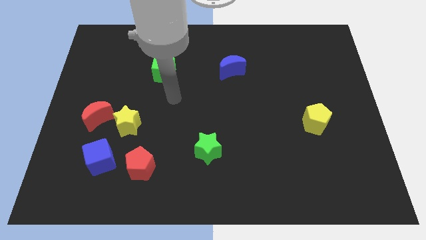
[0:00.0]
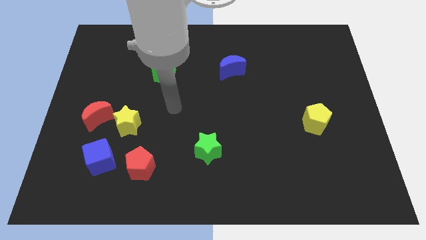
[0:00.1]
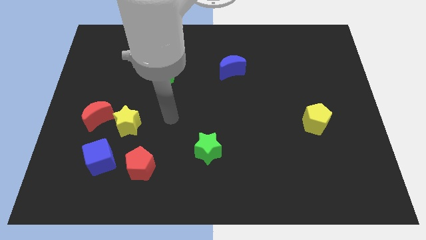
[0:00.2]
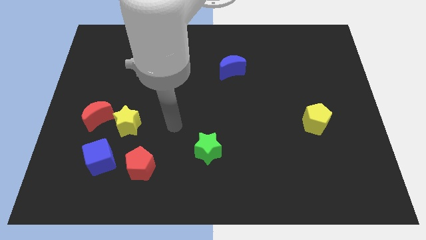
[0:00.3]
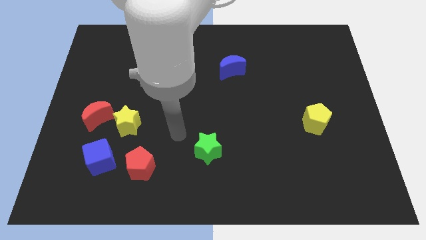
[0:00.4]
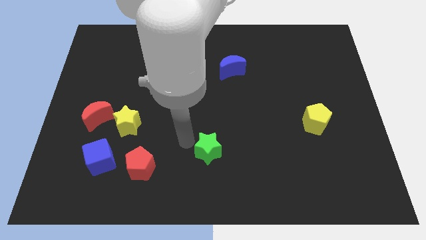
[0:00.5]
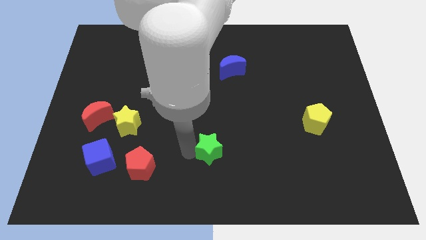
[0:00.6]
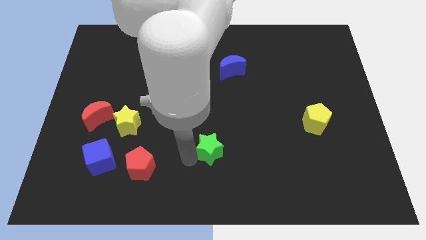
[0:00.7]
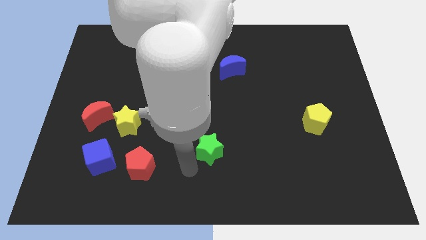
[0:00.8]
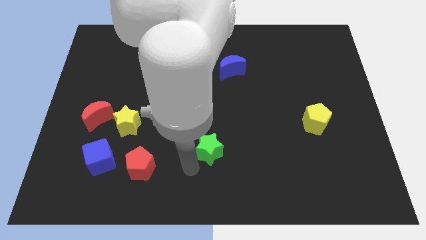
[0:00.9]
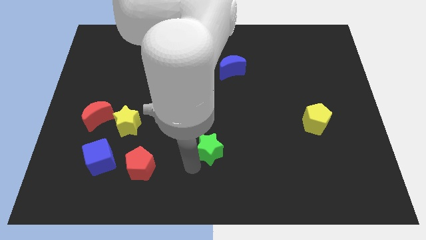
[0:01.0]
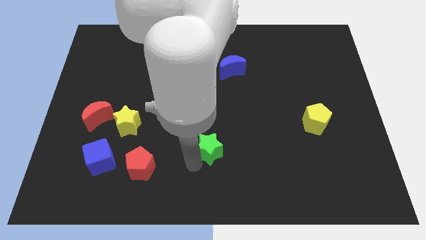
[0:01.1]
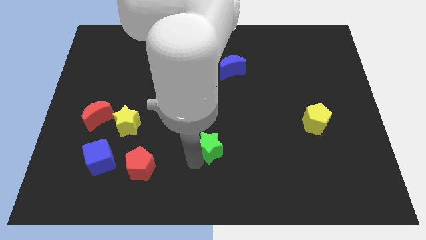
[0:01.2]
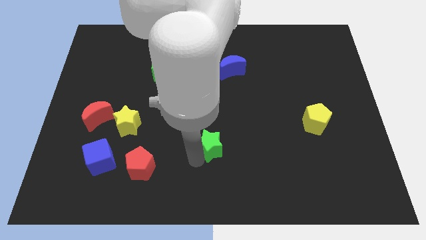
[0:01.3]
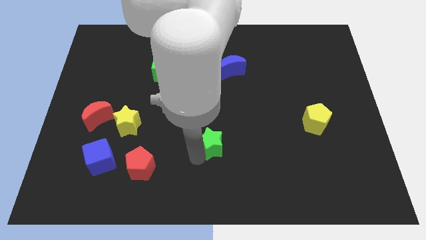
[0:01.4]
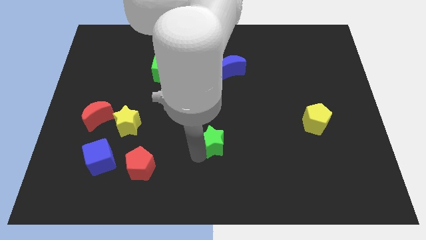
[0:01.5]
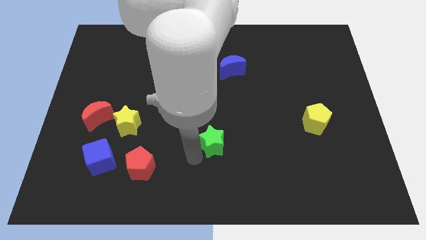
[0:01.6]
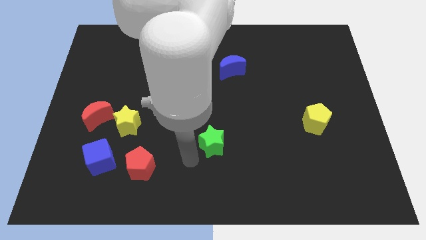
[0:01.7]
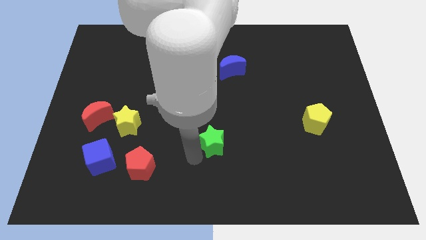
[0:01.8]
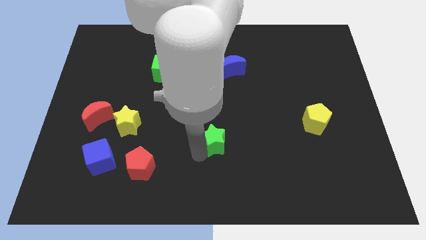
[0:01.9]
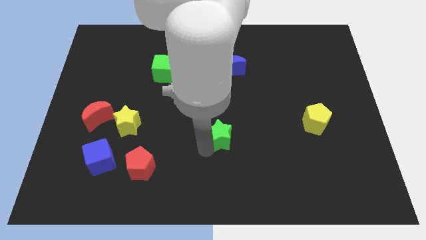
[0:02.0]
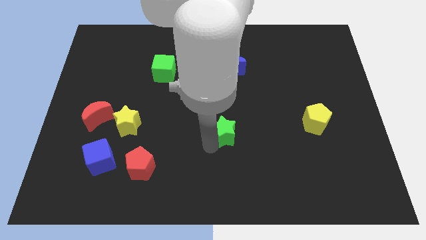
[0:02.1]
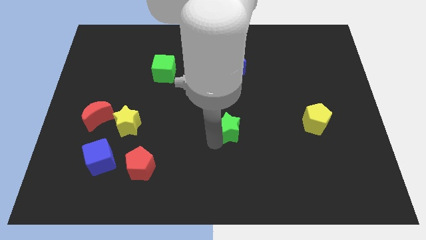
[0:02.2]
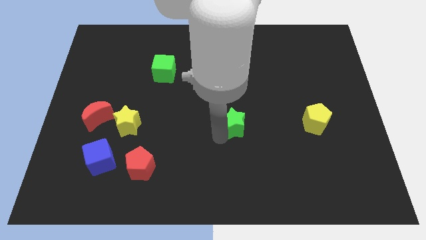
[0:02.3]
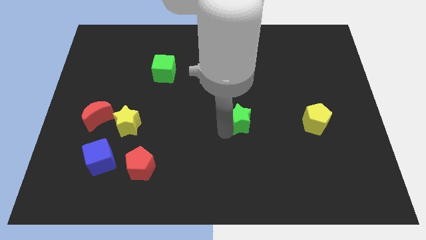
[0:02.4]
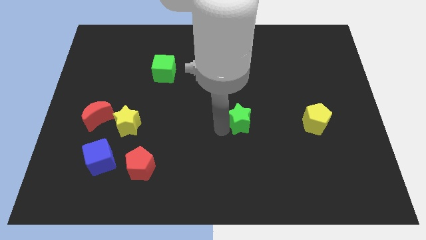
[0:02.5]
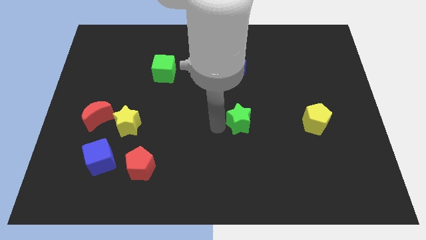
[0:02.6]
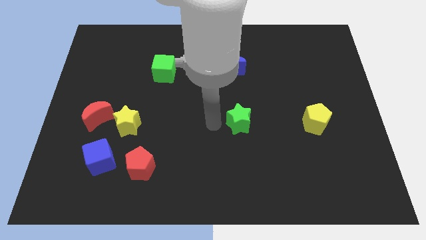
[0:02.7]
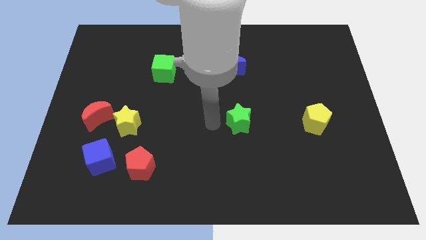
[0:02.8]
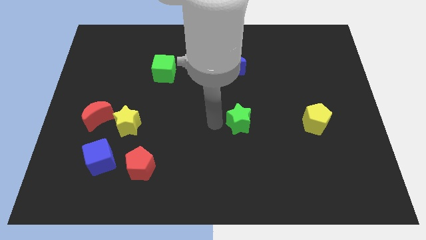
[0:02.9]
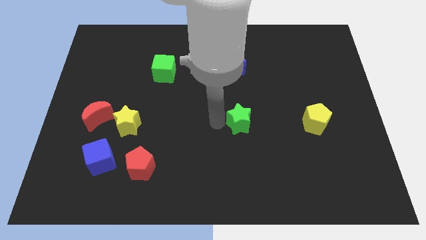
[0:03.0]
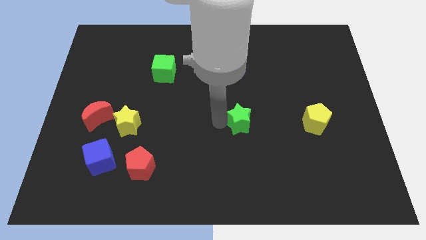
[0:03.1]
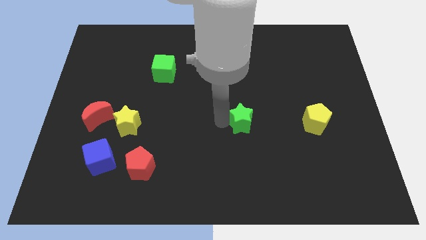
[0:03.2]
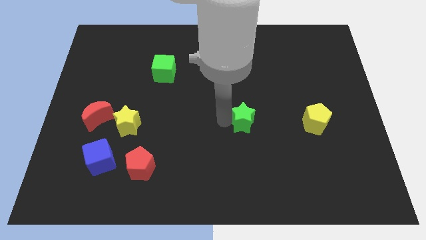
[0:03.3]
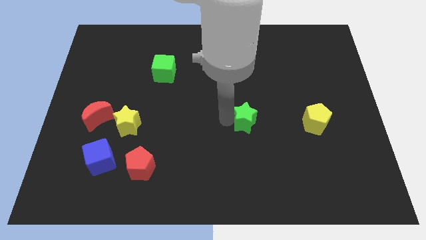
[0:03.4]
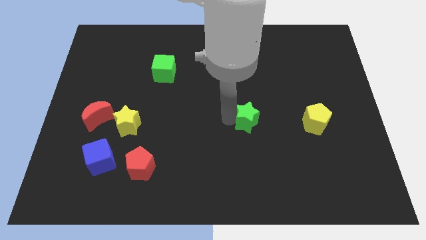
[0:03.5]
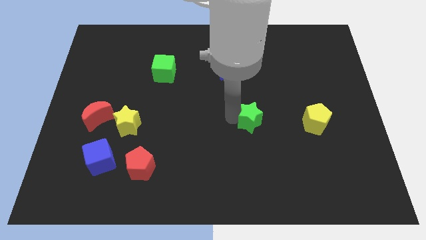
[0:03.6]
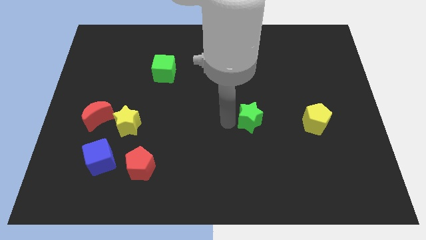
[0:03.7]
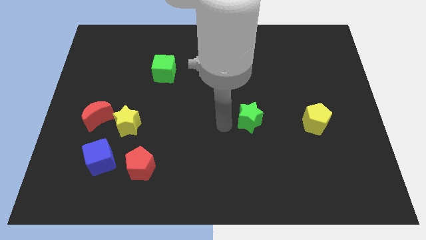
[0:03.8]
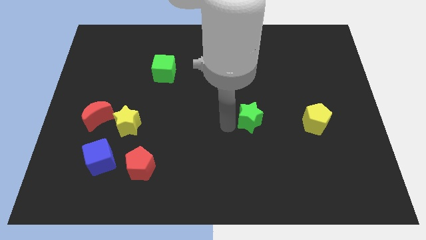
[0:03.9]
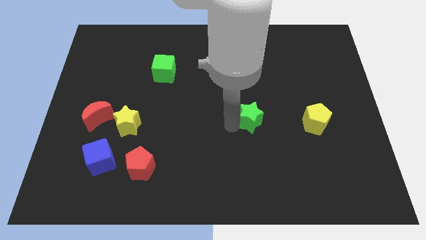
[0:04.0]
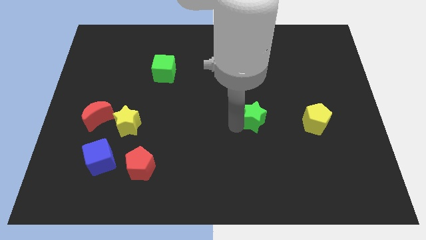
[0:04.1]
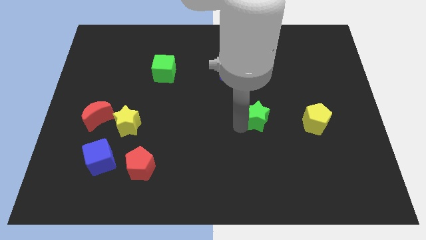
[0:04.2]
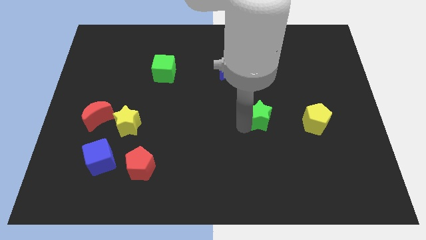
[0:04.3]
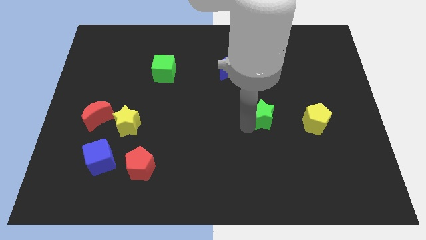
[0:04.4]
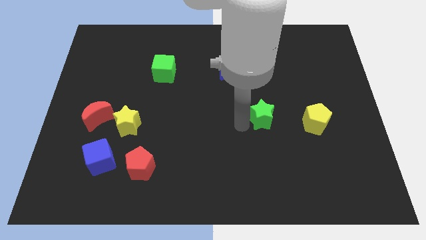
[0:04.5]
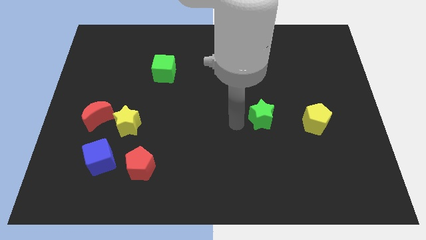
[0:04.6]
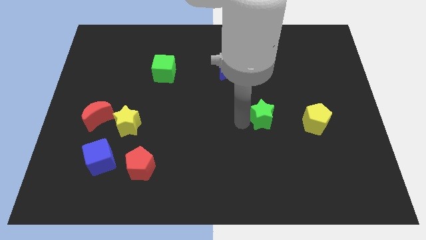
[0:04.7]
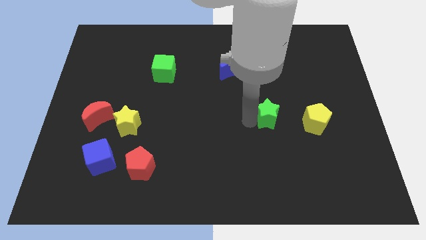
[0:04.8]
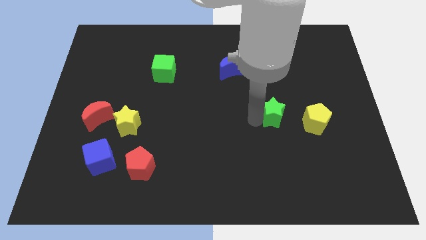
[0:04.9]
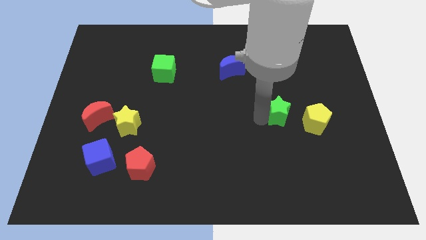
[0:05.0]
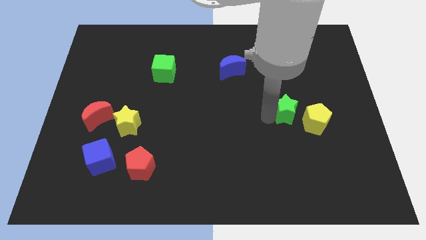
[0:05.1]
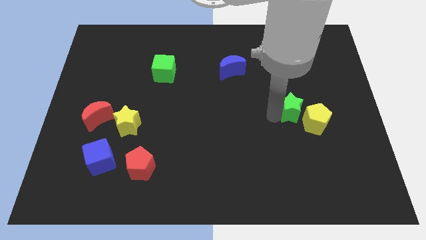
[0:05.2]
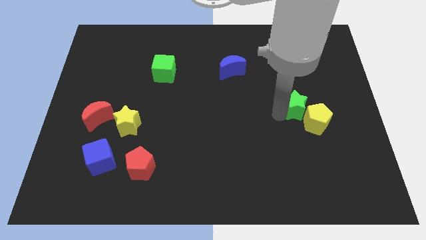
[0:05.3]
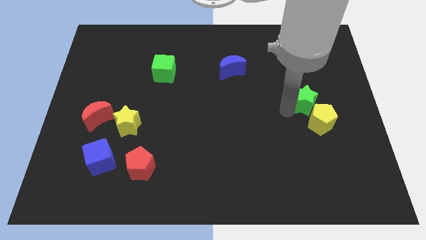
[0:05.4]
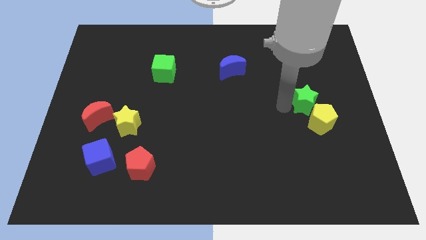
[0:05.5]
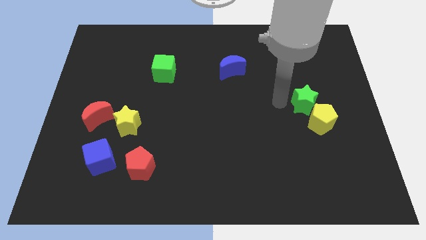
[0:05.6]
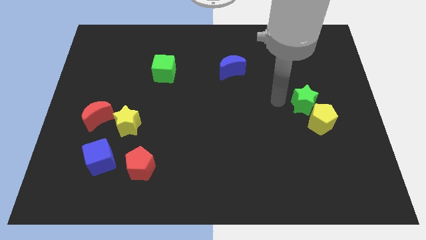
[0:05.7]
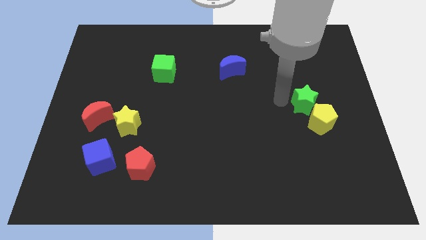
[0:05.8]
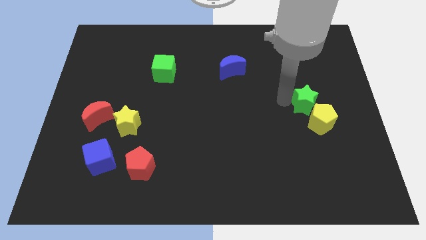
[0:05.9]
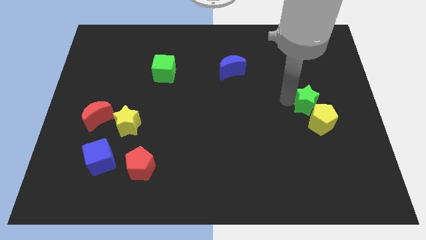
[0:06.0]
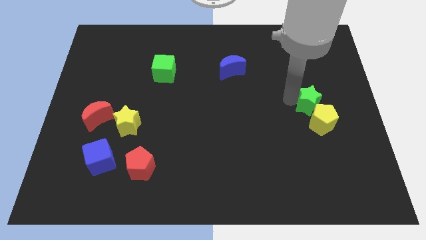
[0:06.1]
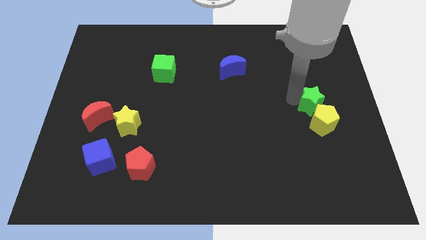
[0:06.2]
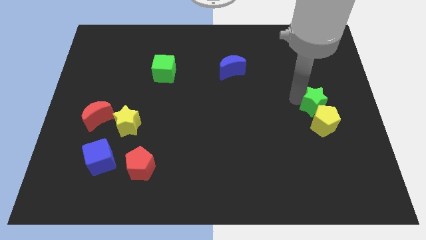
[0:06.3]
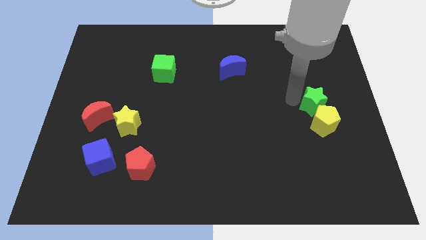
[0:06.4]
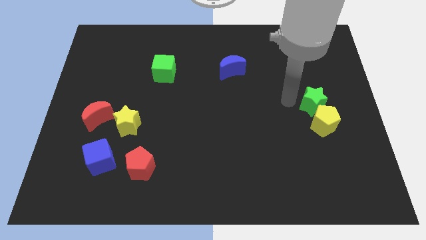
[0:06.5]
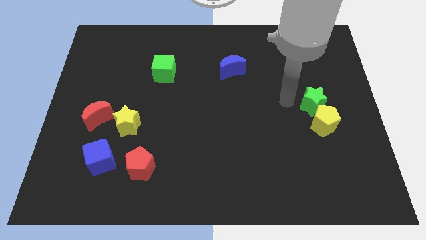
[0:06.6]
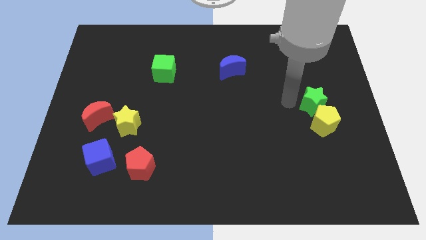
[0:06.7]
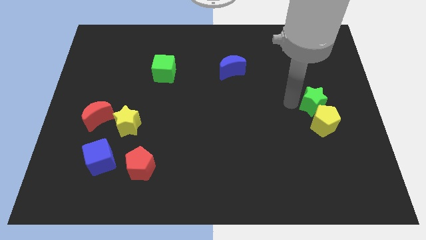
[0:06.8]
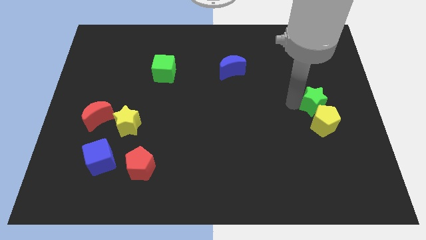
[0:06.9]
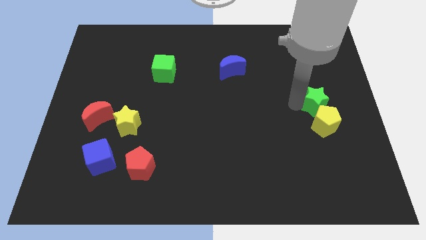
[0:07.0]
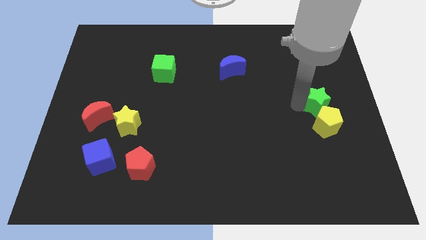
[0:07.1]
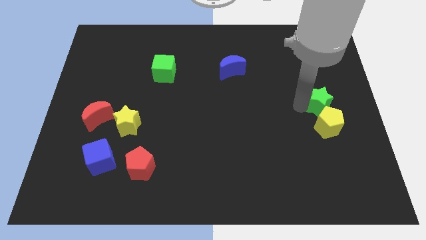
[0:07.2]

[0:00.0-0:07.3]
put the green star to the right side of the board

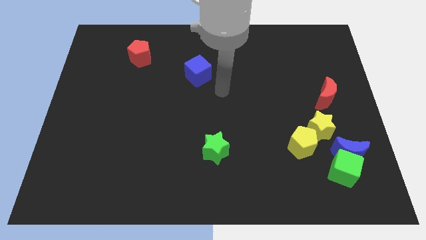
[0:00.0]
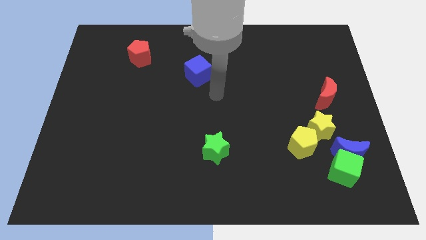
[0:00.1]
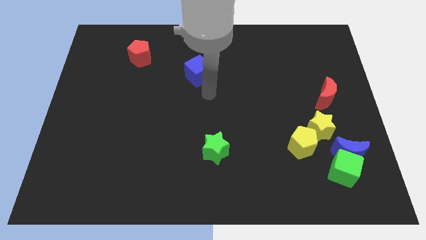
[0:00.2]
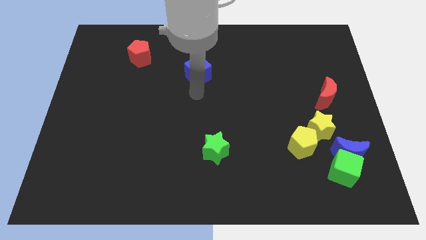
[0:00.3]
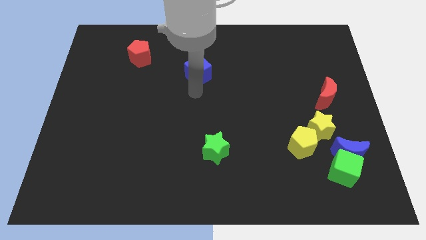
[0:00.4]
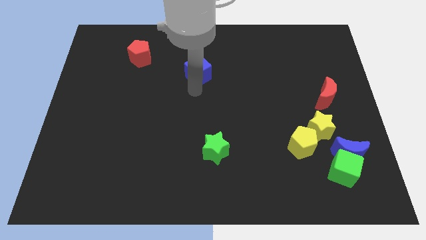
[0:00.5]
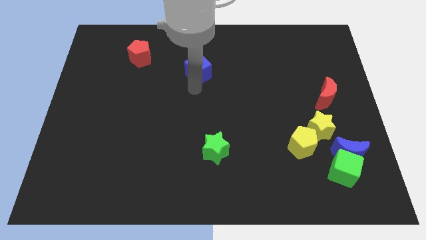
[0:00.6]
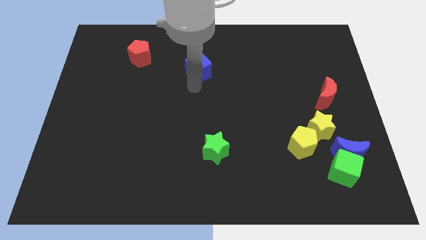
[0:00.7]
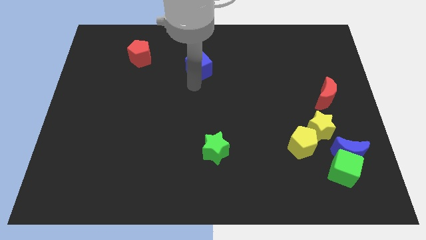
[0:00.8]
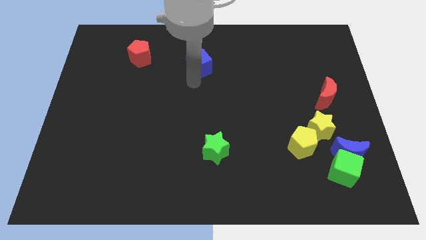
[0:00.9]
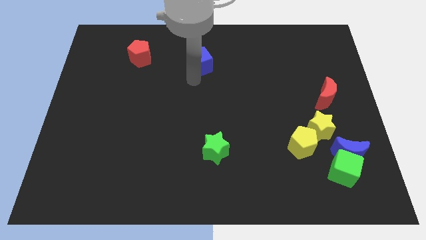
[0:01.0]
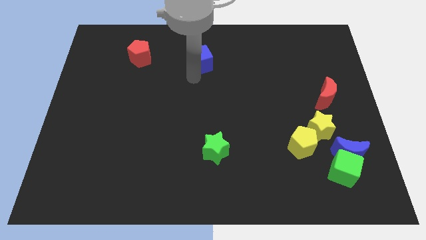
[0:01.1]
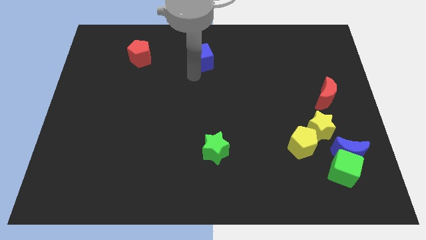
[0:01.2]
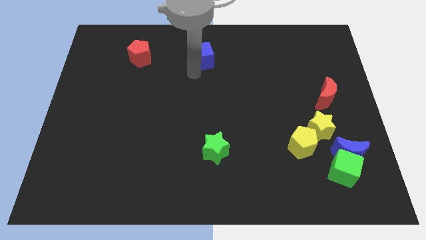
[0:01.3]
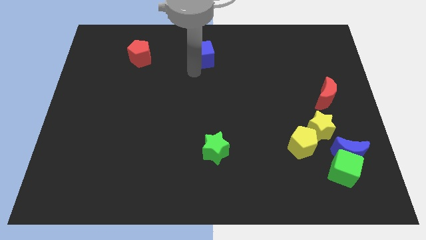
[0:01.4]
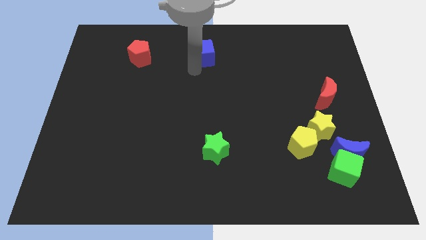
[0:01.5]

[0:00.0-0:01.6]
slide the blue cube to the towards your base
